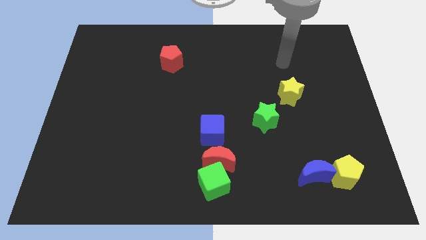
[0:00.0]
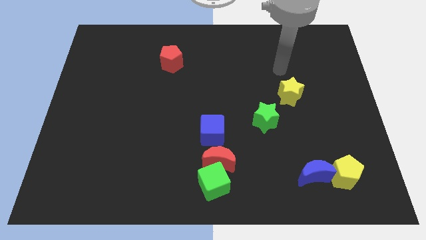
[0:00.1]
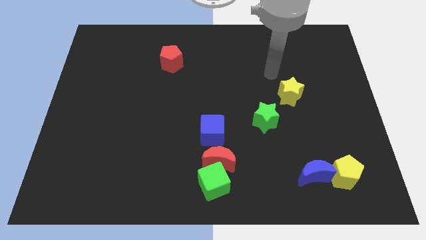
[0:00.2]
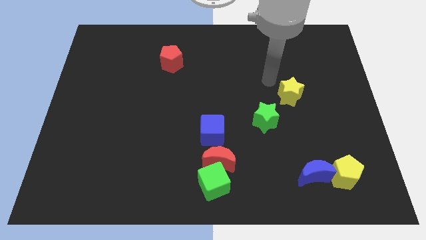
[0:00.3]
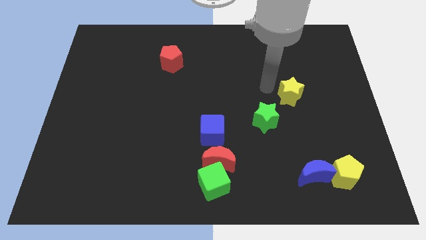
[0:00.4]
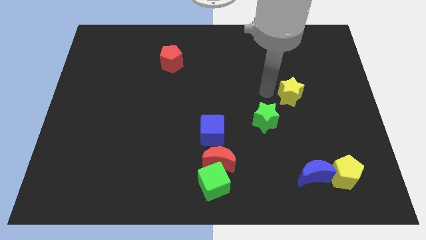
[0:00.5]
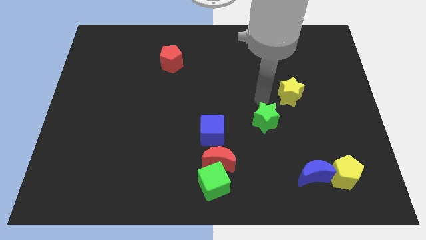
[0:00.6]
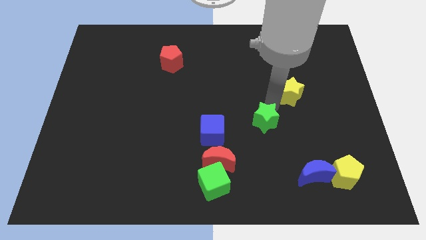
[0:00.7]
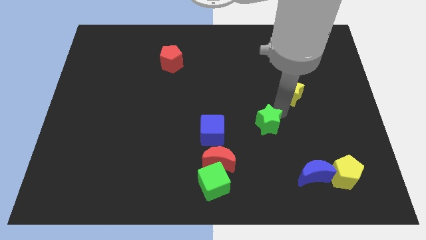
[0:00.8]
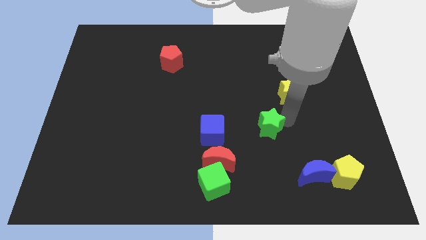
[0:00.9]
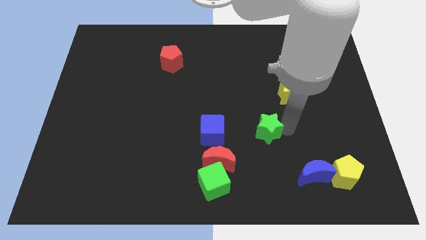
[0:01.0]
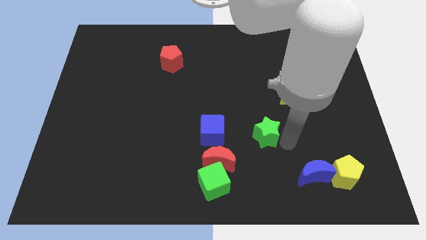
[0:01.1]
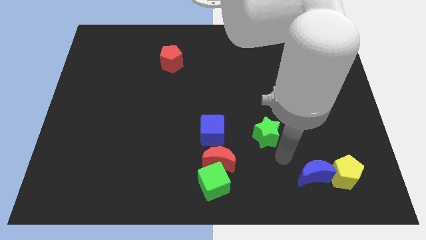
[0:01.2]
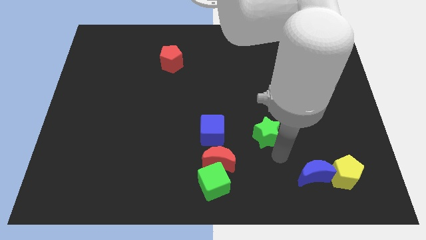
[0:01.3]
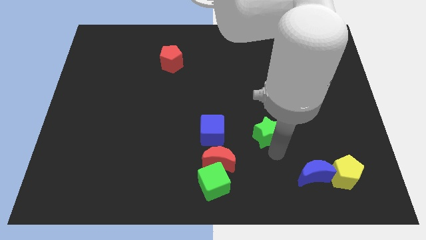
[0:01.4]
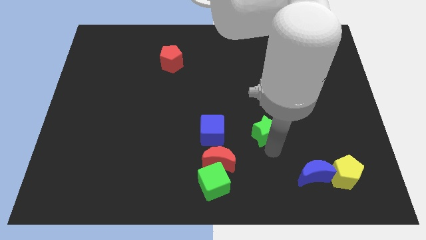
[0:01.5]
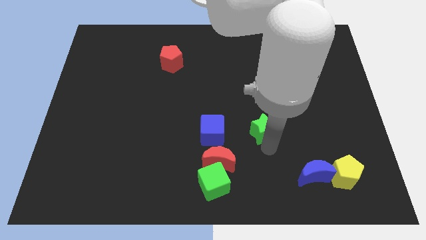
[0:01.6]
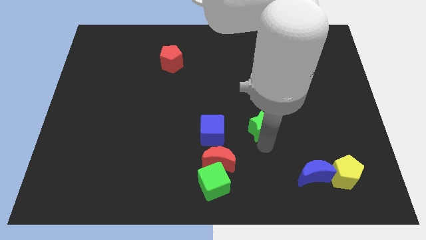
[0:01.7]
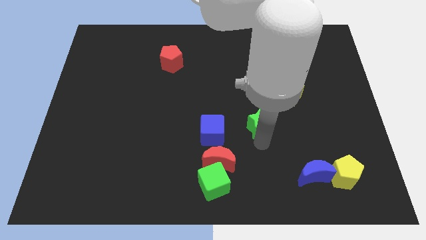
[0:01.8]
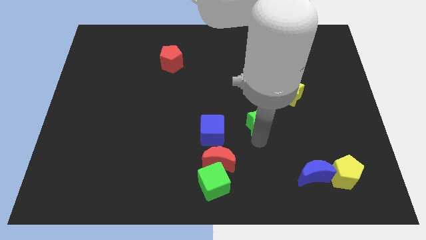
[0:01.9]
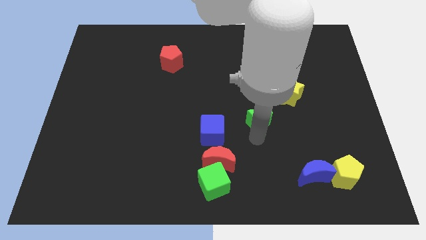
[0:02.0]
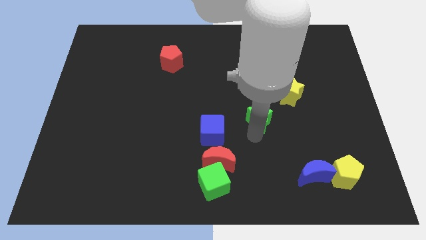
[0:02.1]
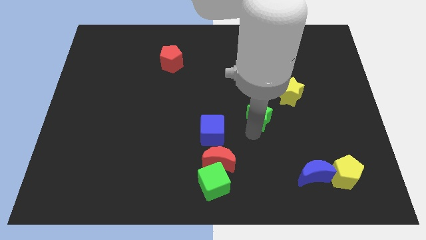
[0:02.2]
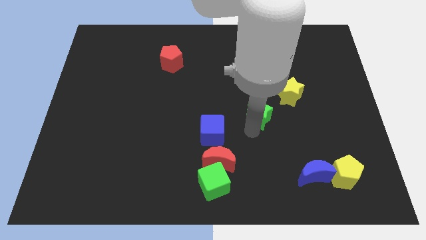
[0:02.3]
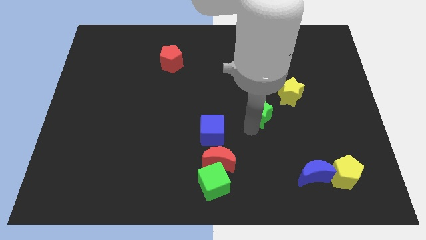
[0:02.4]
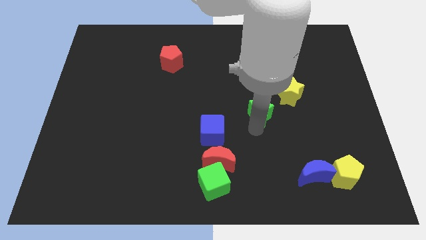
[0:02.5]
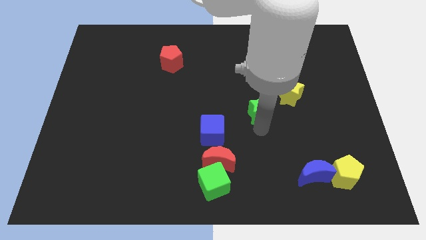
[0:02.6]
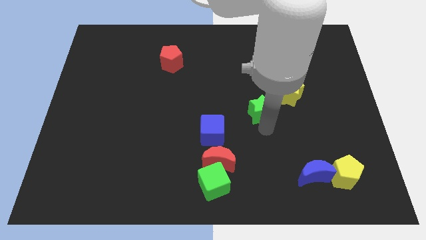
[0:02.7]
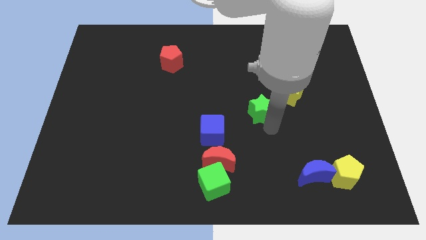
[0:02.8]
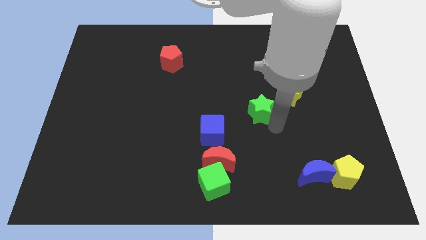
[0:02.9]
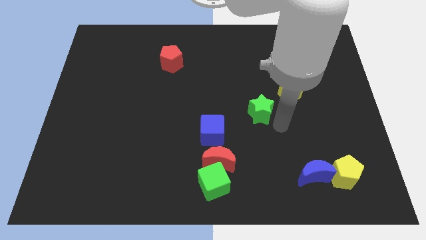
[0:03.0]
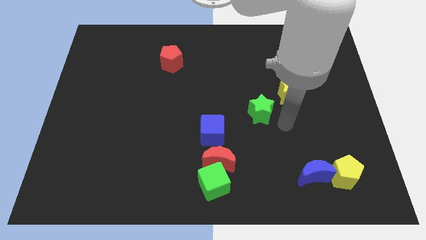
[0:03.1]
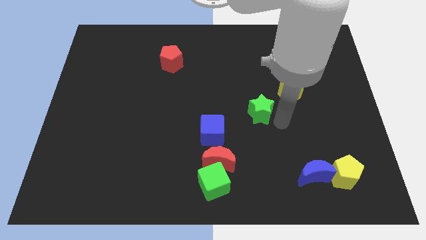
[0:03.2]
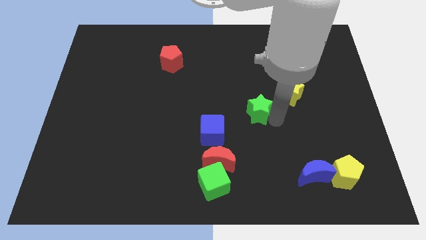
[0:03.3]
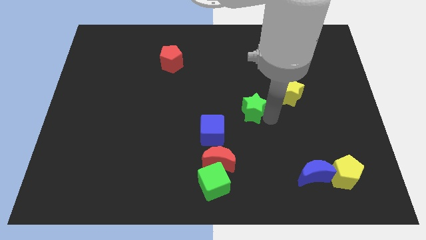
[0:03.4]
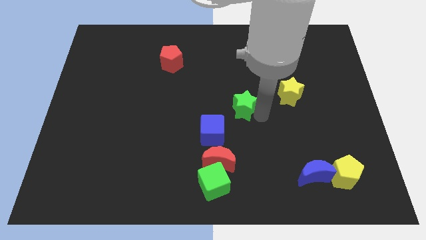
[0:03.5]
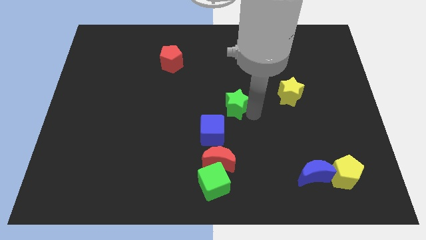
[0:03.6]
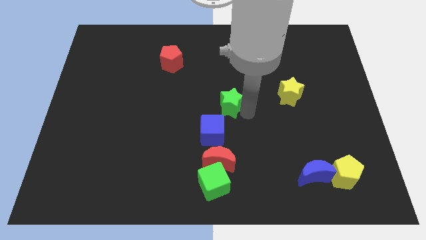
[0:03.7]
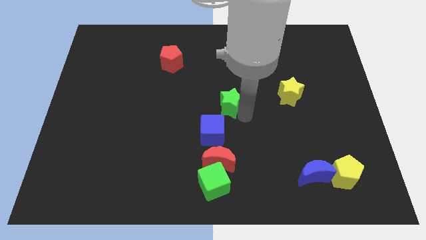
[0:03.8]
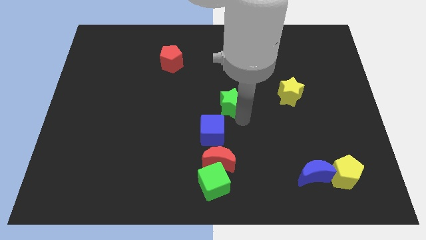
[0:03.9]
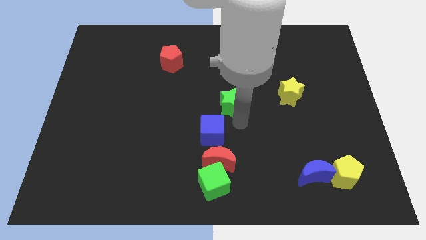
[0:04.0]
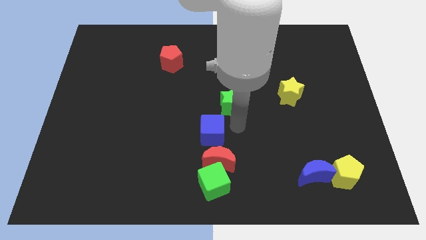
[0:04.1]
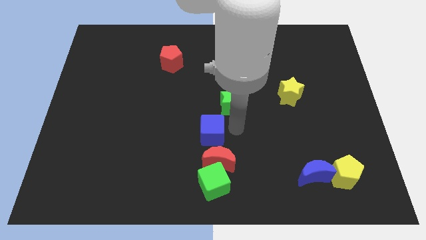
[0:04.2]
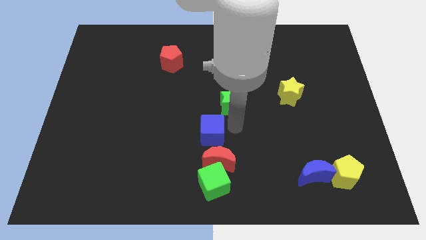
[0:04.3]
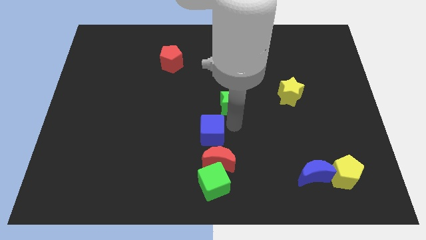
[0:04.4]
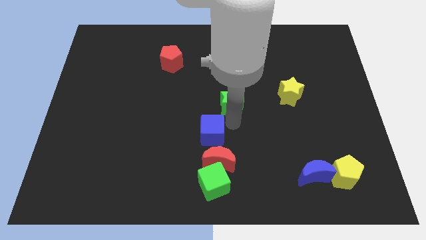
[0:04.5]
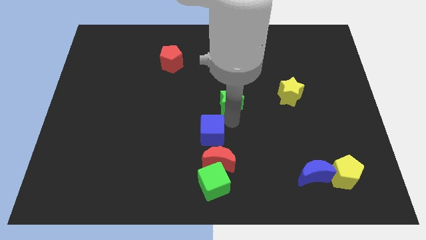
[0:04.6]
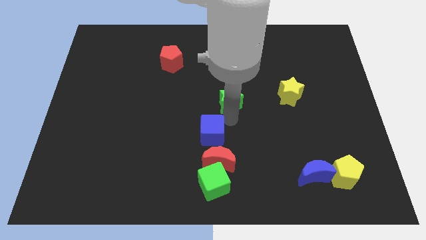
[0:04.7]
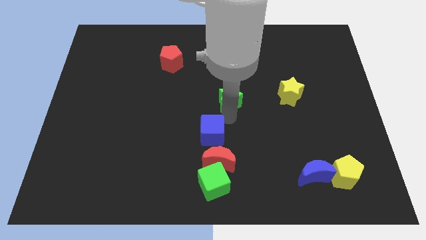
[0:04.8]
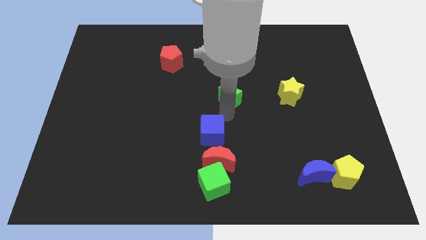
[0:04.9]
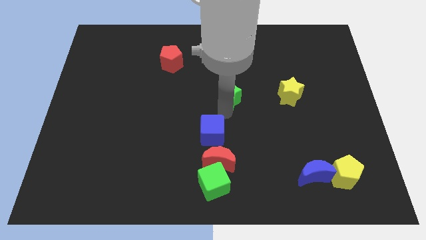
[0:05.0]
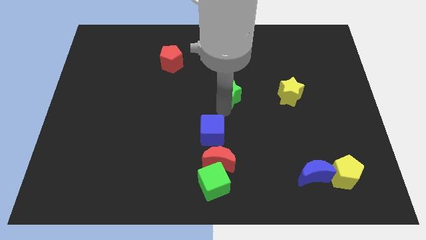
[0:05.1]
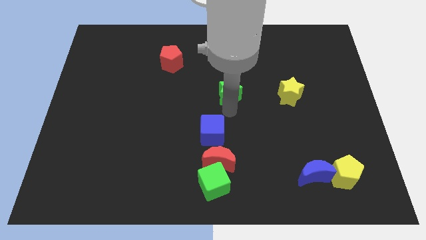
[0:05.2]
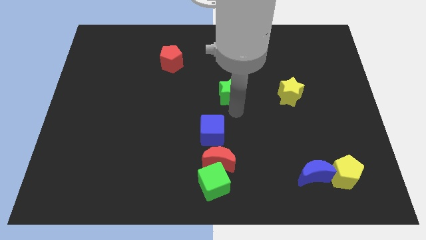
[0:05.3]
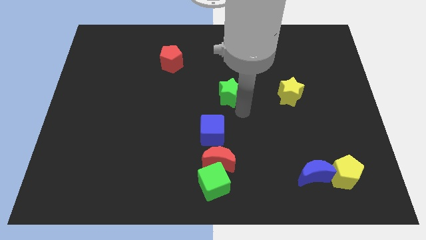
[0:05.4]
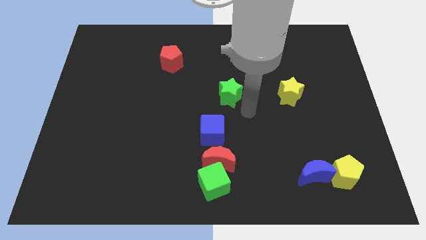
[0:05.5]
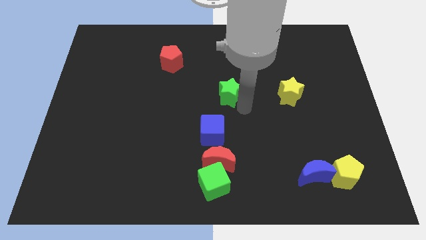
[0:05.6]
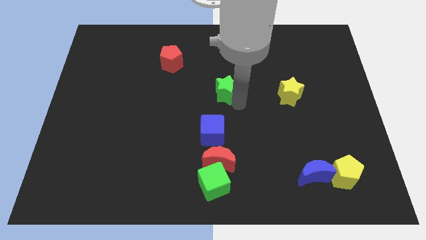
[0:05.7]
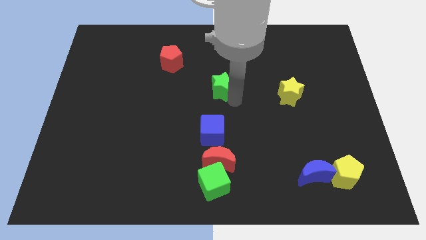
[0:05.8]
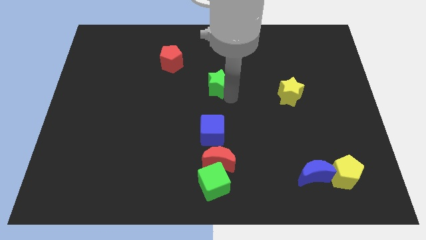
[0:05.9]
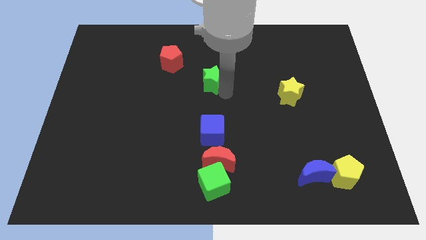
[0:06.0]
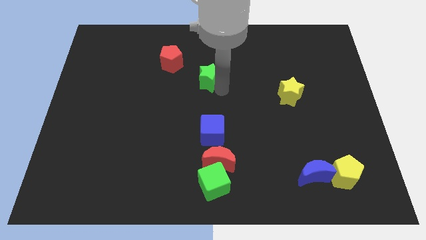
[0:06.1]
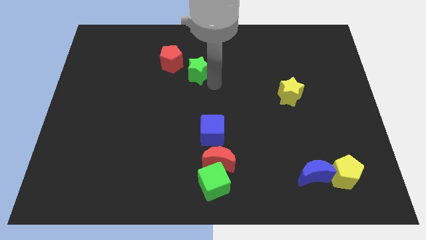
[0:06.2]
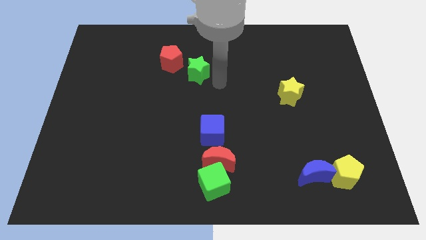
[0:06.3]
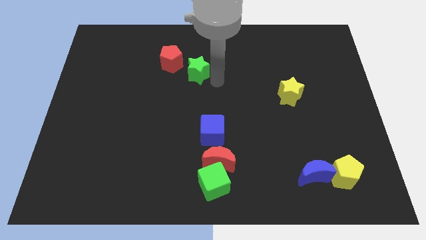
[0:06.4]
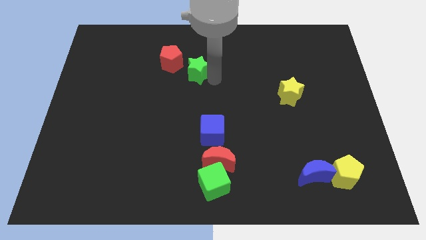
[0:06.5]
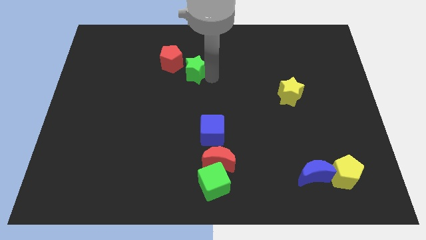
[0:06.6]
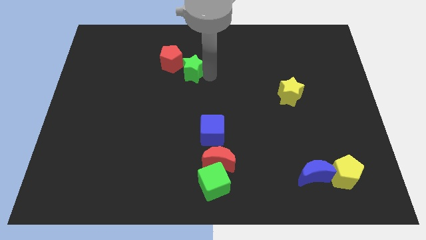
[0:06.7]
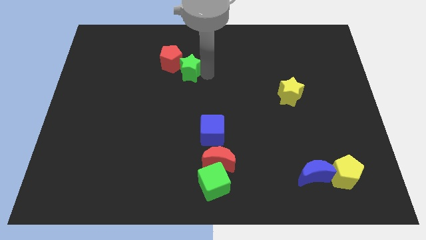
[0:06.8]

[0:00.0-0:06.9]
slide the green star towards the red pentagon
